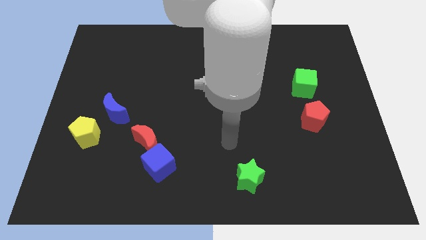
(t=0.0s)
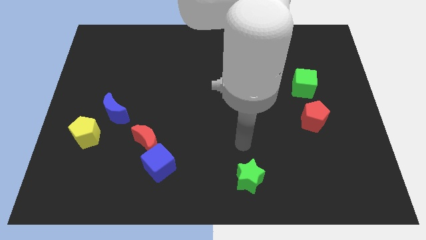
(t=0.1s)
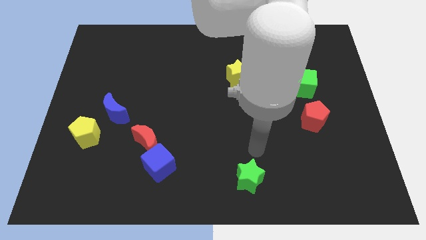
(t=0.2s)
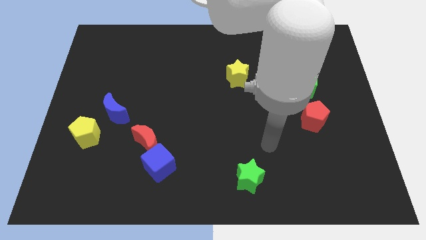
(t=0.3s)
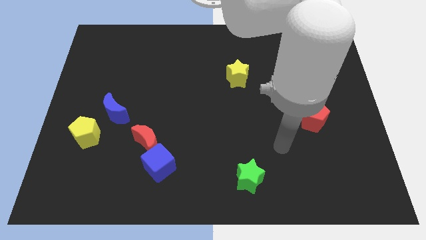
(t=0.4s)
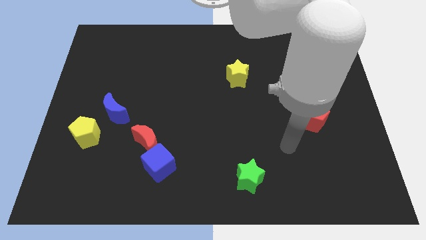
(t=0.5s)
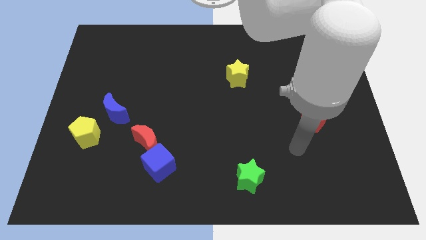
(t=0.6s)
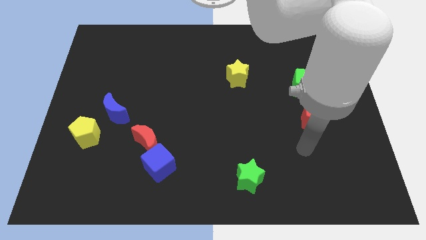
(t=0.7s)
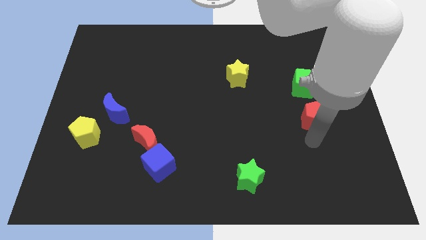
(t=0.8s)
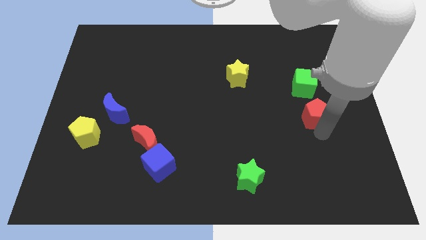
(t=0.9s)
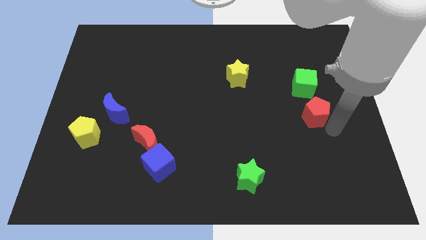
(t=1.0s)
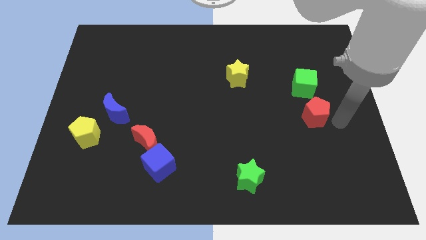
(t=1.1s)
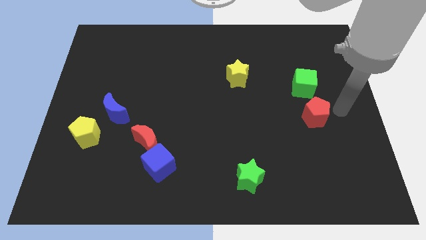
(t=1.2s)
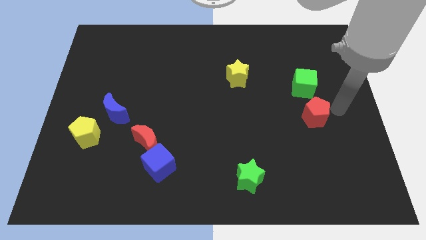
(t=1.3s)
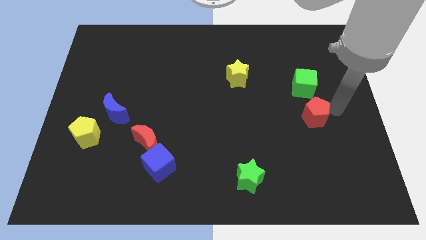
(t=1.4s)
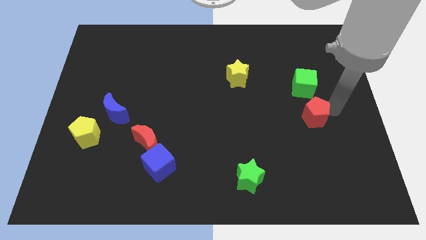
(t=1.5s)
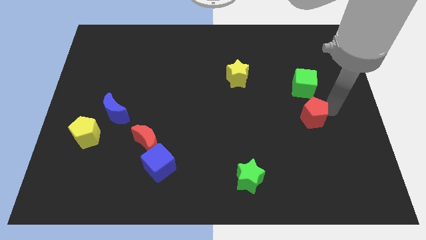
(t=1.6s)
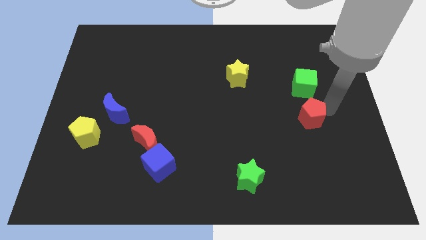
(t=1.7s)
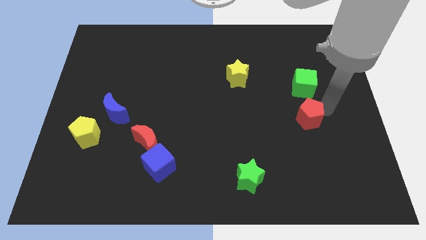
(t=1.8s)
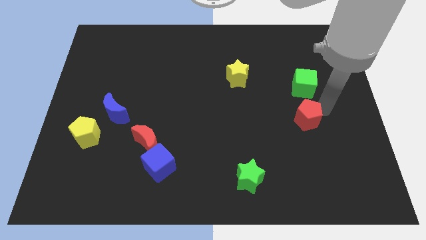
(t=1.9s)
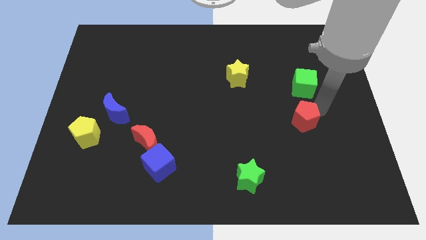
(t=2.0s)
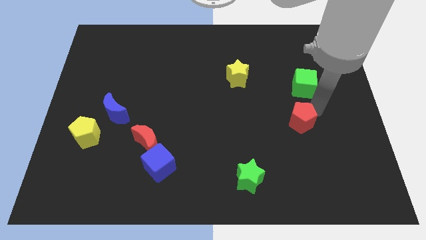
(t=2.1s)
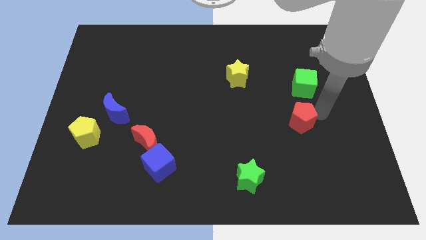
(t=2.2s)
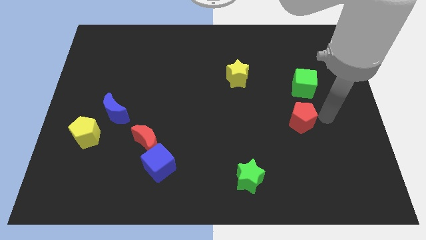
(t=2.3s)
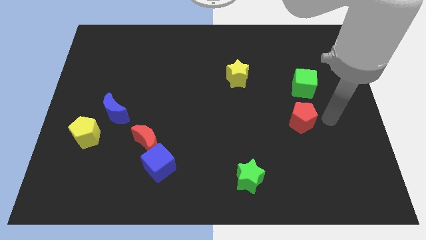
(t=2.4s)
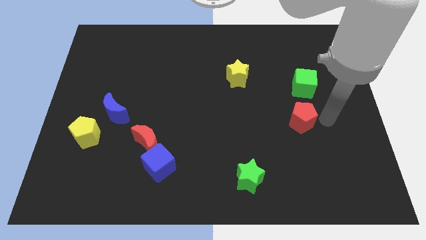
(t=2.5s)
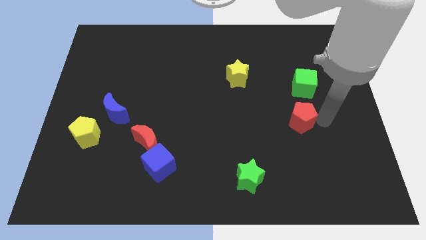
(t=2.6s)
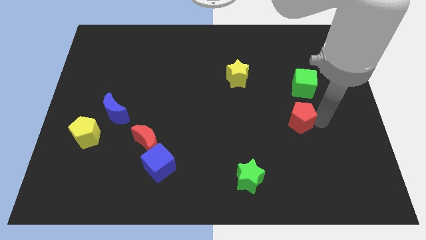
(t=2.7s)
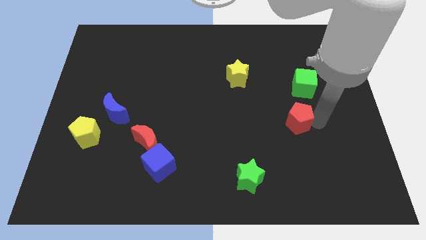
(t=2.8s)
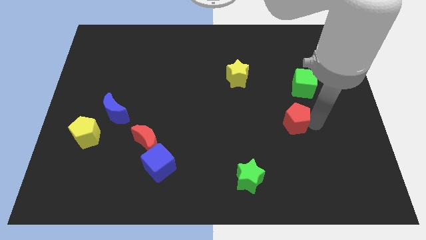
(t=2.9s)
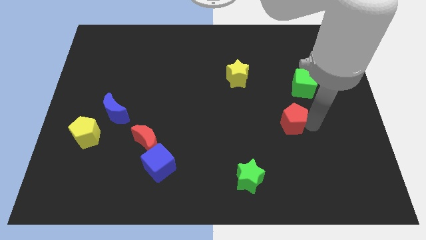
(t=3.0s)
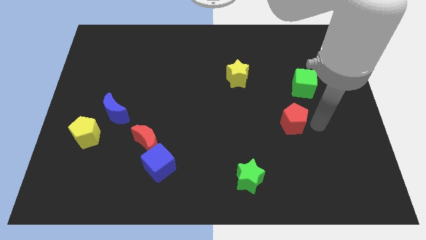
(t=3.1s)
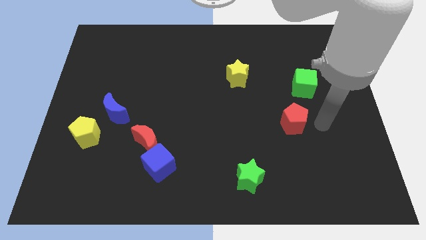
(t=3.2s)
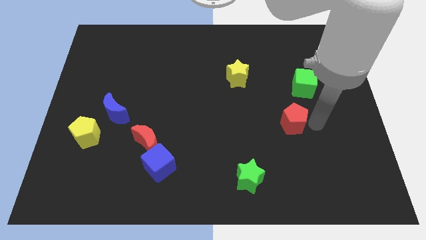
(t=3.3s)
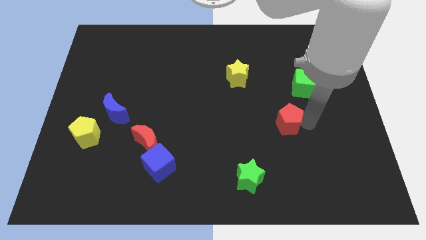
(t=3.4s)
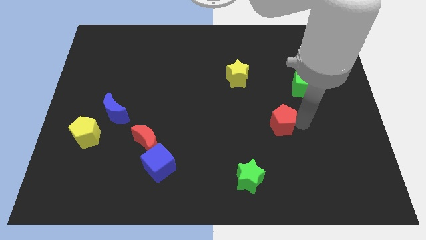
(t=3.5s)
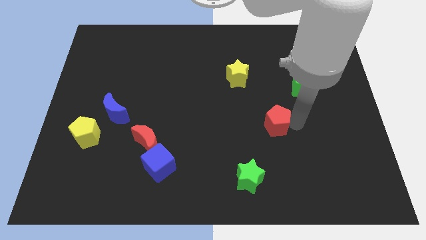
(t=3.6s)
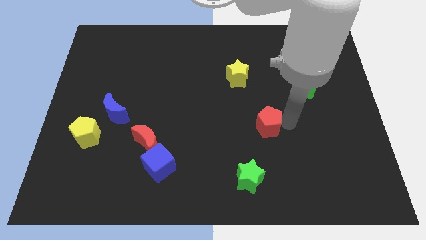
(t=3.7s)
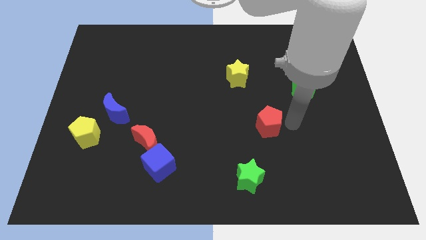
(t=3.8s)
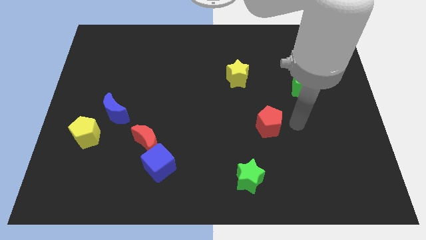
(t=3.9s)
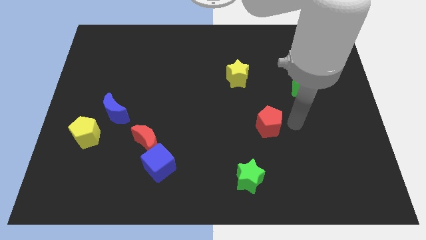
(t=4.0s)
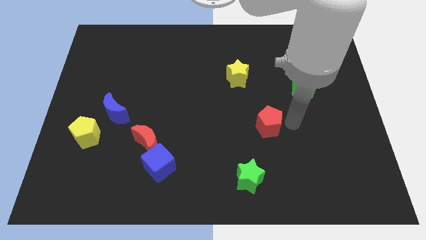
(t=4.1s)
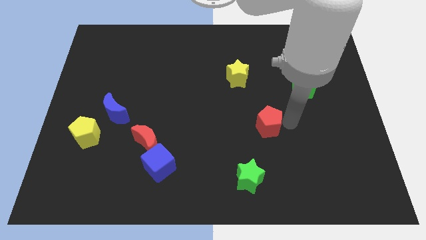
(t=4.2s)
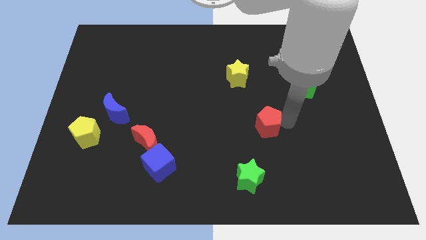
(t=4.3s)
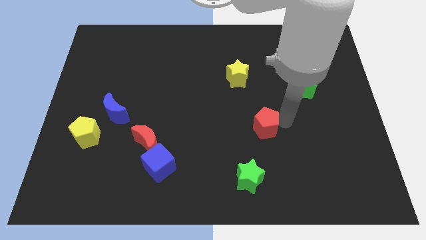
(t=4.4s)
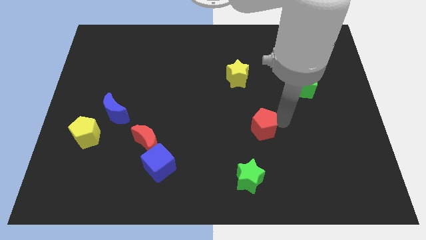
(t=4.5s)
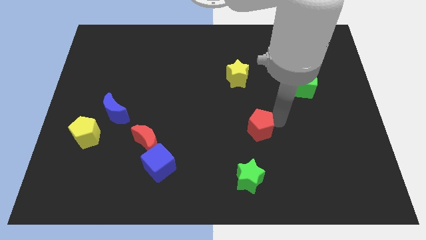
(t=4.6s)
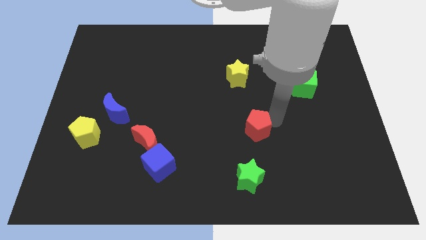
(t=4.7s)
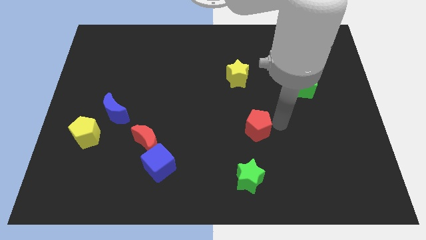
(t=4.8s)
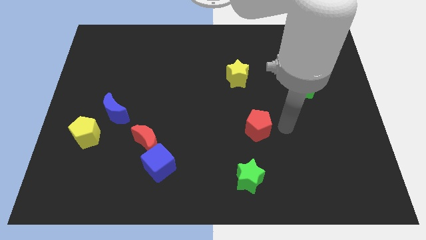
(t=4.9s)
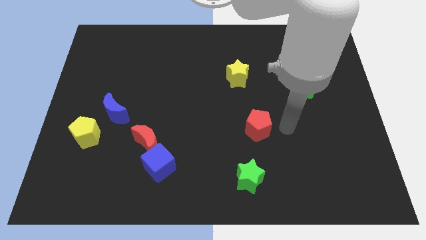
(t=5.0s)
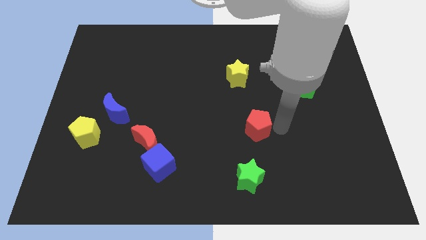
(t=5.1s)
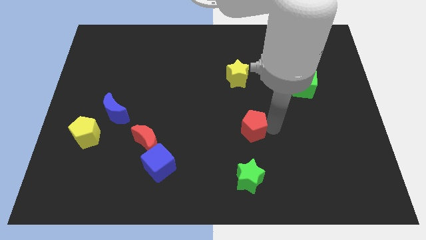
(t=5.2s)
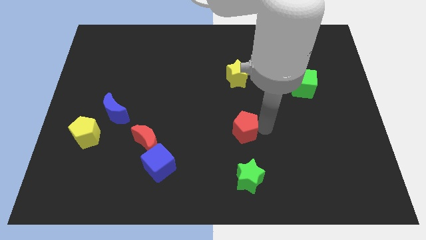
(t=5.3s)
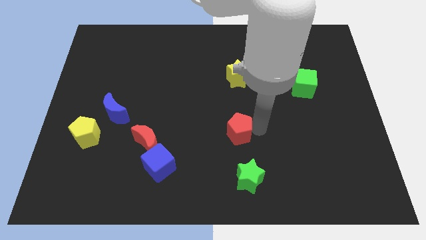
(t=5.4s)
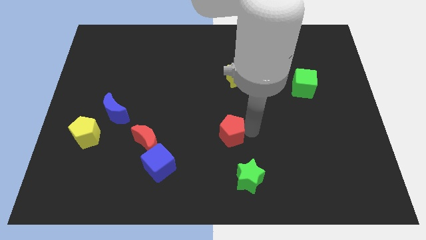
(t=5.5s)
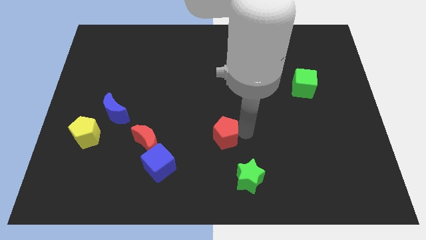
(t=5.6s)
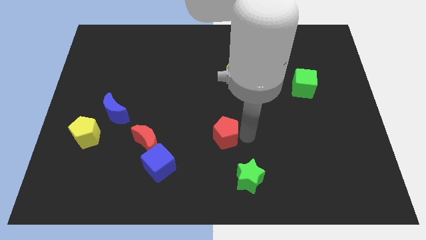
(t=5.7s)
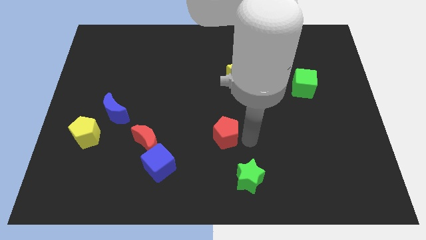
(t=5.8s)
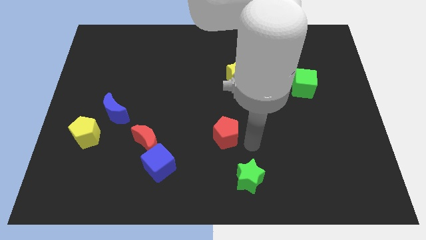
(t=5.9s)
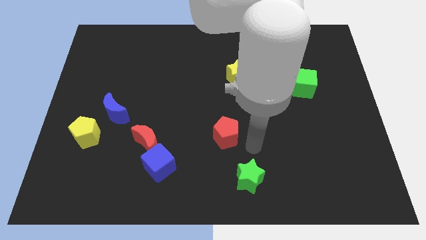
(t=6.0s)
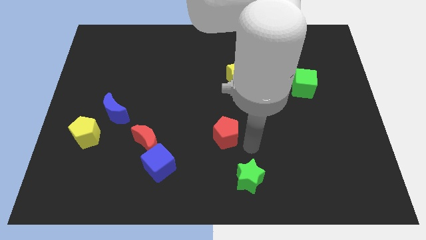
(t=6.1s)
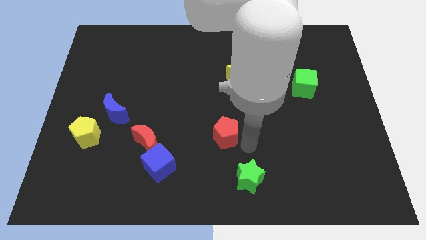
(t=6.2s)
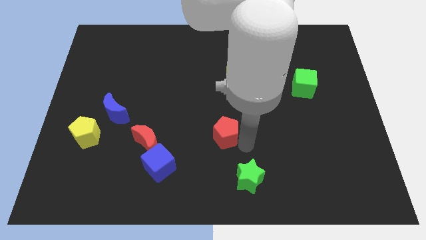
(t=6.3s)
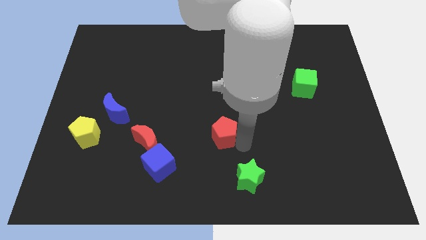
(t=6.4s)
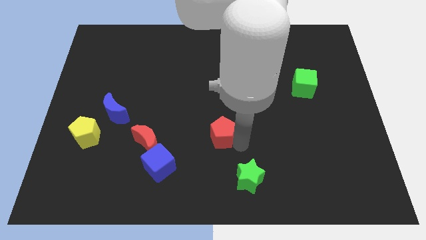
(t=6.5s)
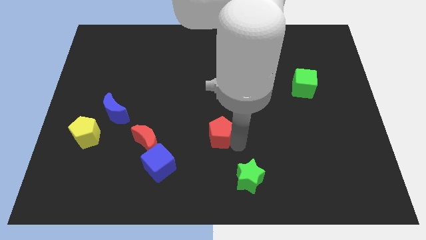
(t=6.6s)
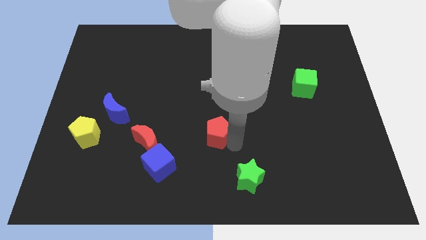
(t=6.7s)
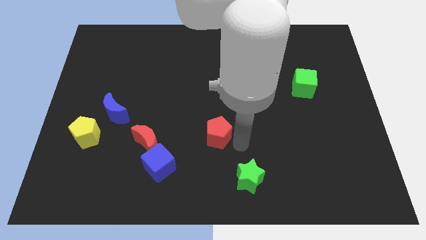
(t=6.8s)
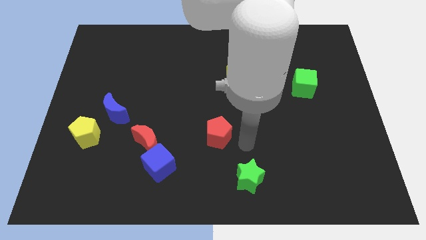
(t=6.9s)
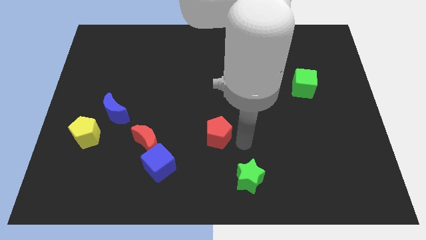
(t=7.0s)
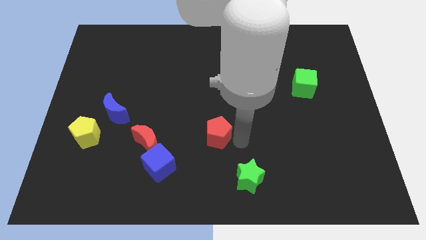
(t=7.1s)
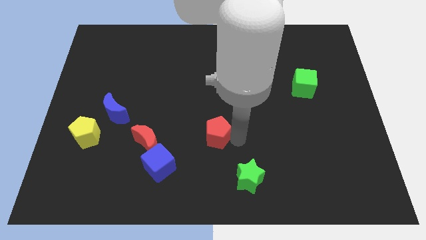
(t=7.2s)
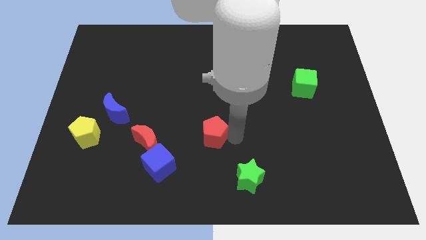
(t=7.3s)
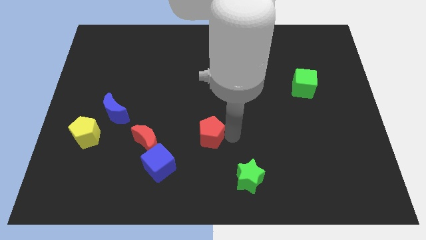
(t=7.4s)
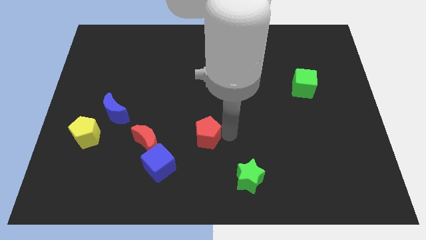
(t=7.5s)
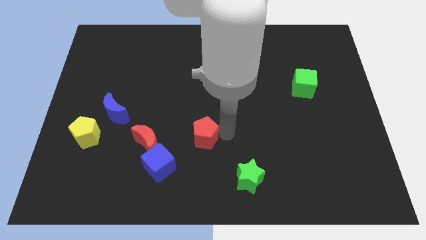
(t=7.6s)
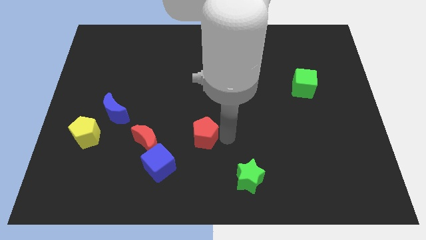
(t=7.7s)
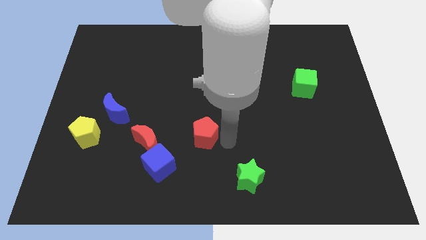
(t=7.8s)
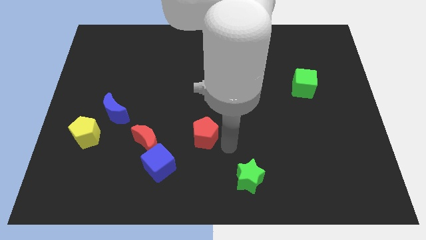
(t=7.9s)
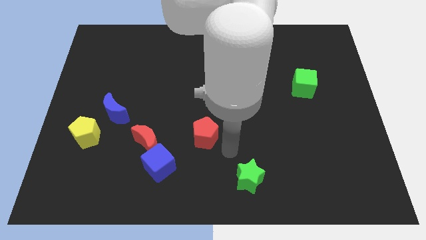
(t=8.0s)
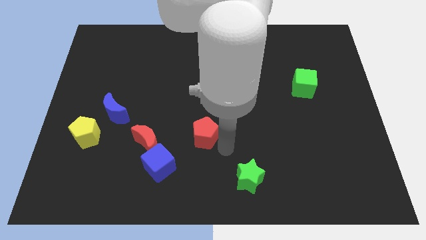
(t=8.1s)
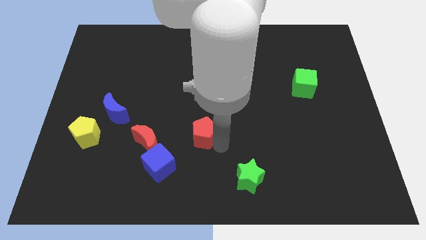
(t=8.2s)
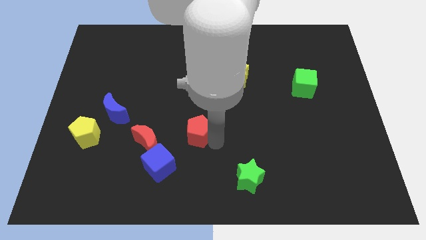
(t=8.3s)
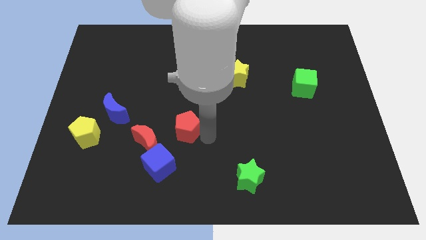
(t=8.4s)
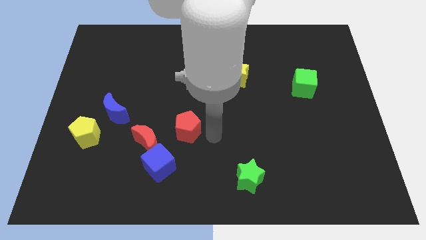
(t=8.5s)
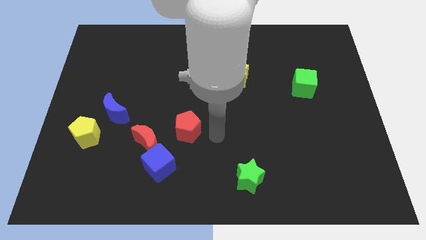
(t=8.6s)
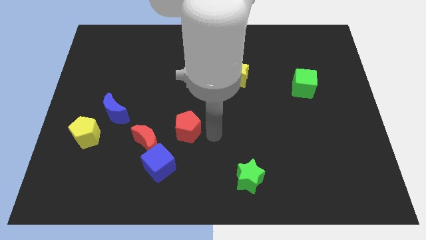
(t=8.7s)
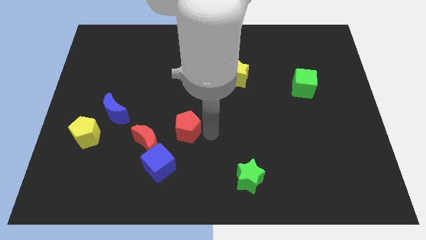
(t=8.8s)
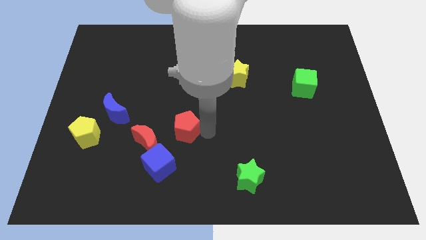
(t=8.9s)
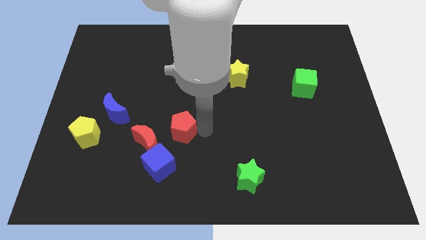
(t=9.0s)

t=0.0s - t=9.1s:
push the red pentagon above the blue cube
